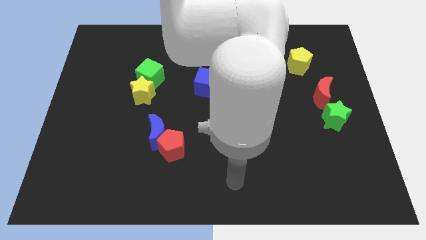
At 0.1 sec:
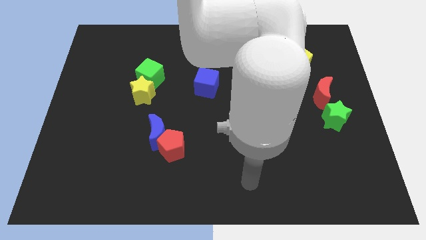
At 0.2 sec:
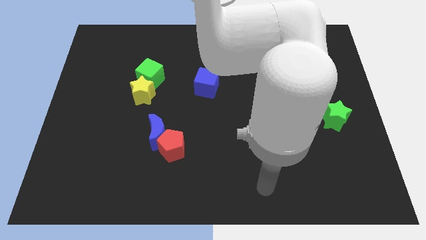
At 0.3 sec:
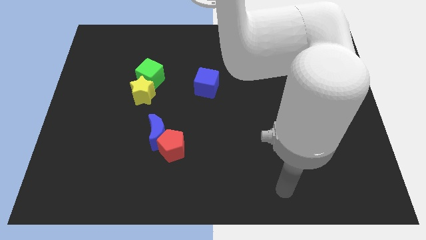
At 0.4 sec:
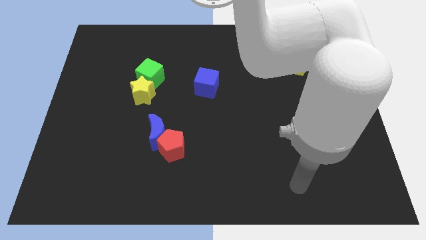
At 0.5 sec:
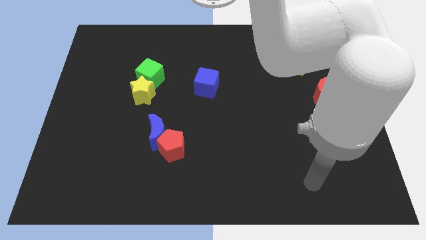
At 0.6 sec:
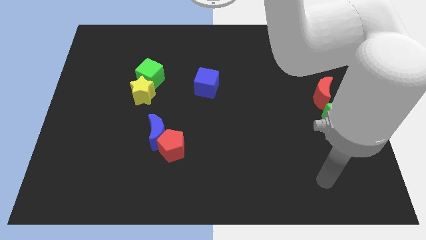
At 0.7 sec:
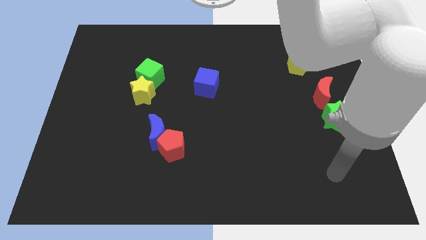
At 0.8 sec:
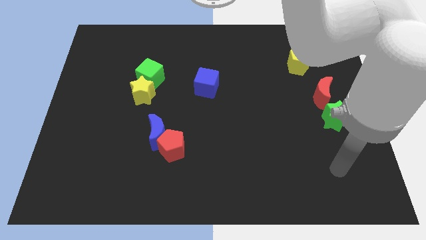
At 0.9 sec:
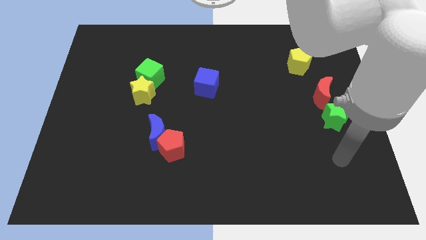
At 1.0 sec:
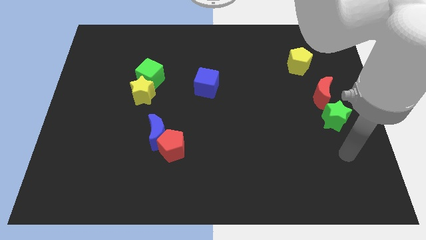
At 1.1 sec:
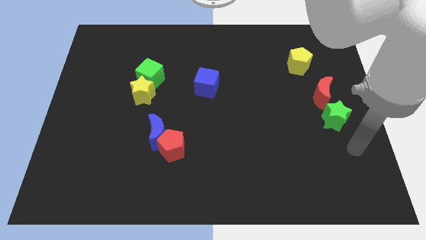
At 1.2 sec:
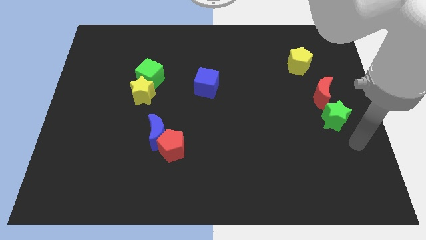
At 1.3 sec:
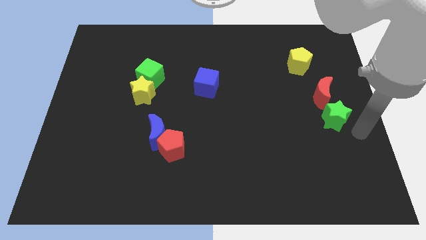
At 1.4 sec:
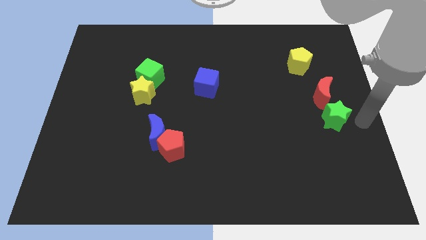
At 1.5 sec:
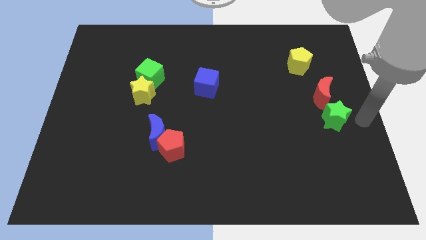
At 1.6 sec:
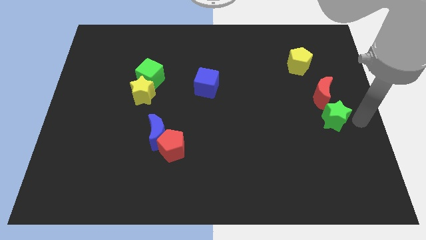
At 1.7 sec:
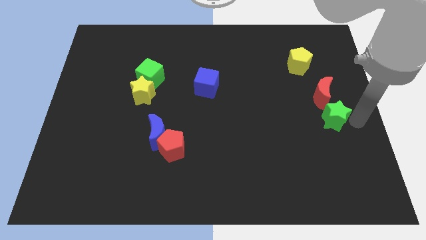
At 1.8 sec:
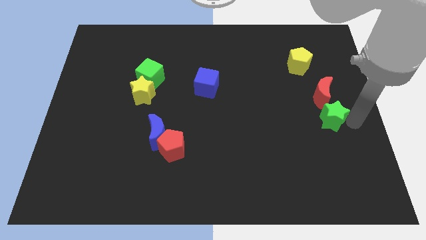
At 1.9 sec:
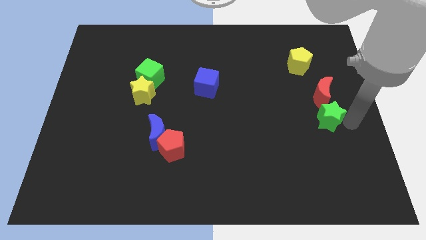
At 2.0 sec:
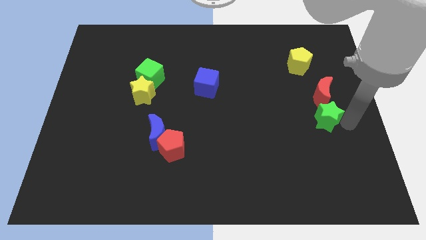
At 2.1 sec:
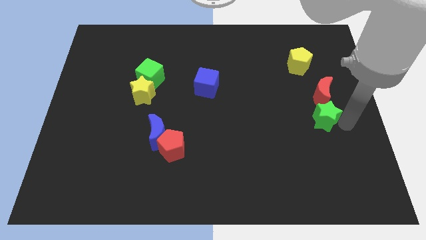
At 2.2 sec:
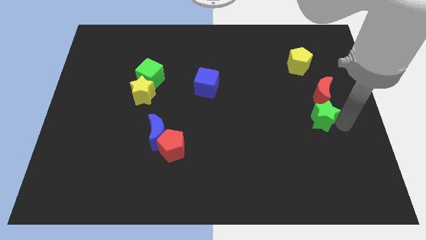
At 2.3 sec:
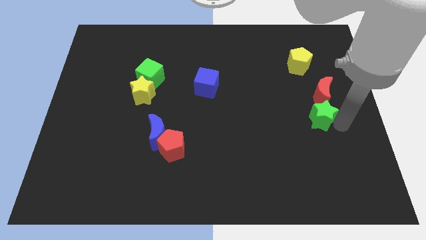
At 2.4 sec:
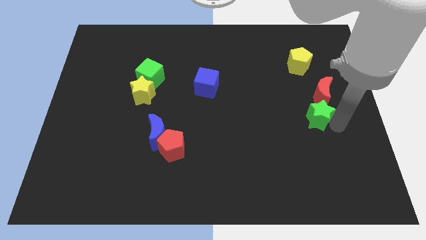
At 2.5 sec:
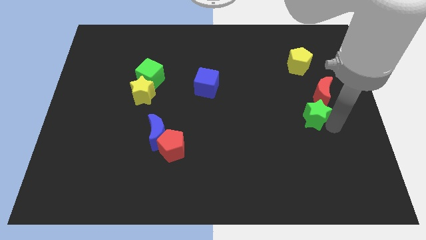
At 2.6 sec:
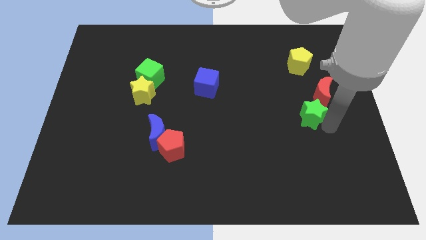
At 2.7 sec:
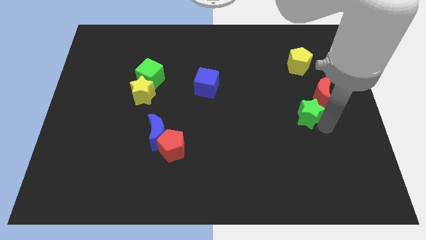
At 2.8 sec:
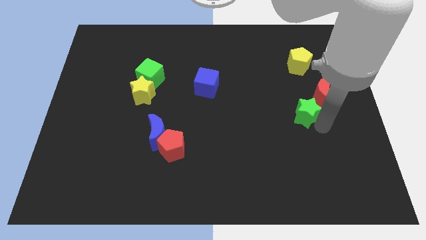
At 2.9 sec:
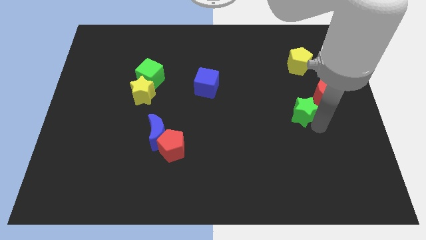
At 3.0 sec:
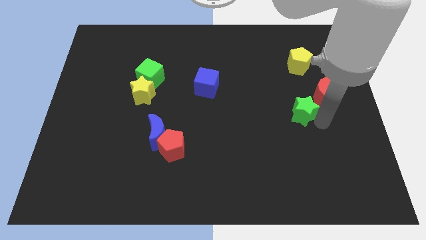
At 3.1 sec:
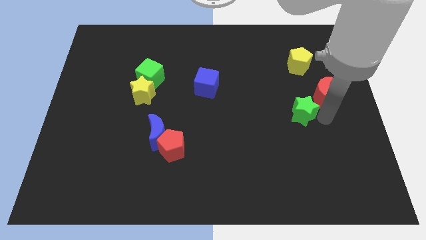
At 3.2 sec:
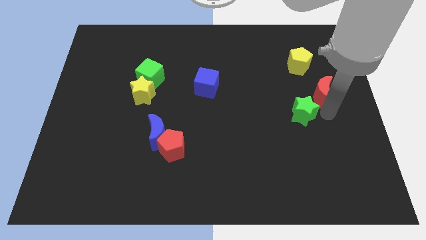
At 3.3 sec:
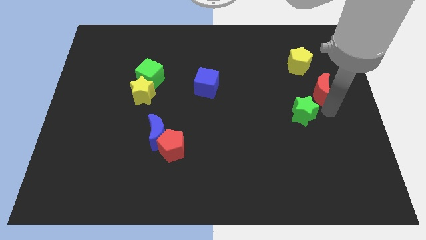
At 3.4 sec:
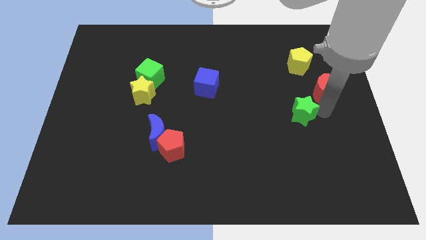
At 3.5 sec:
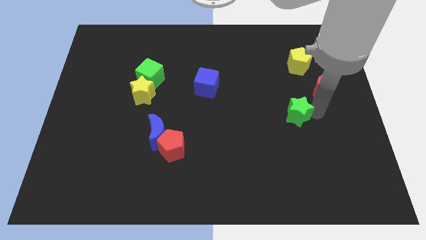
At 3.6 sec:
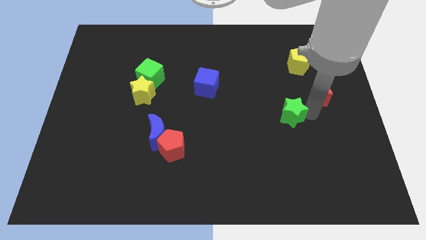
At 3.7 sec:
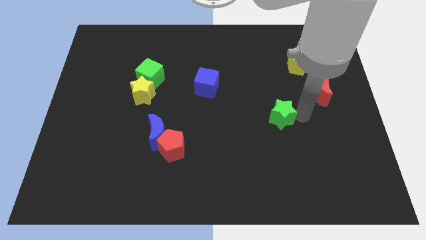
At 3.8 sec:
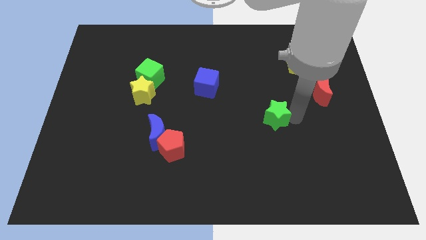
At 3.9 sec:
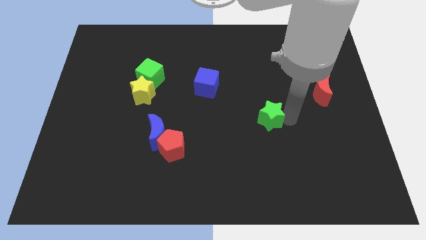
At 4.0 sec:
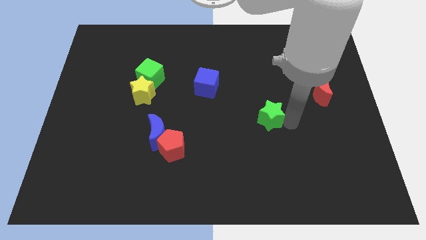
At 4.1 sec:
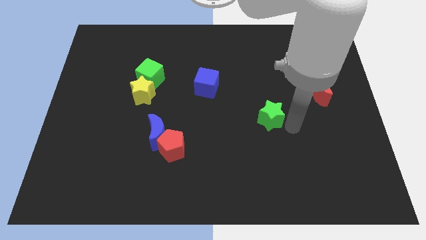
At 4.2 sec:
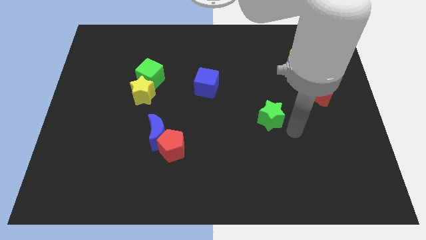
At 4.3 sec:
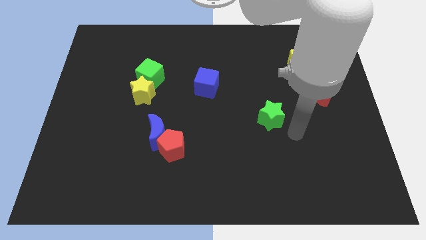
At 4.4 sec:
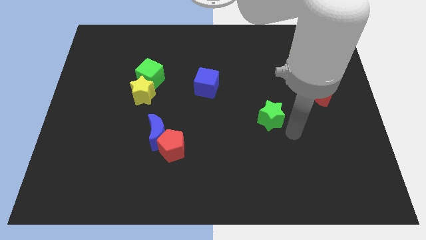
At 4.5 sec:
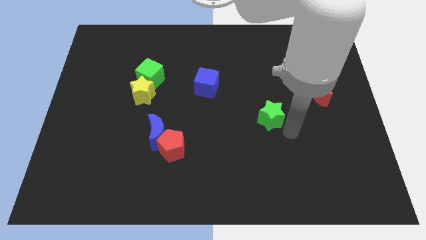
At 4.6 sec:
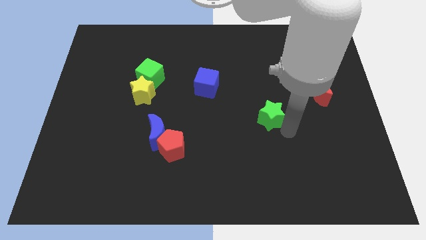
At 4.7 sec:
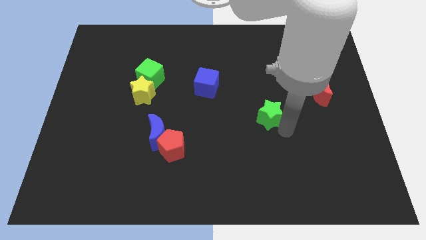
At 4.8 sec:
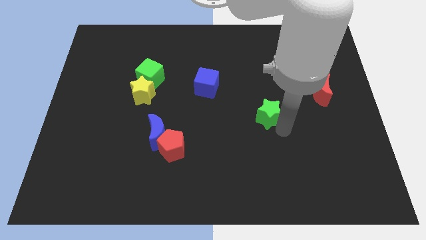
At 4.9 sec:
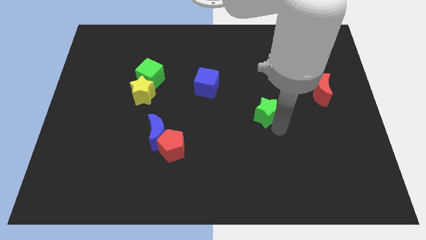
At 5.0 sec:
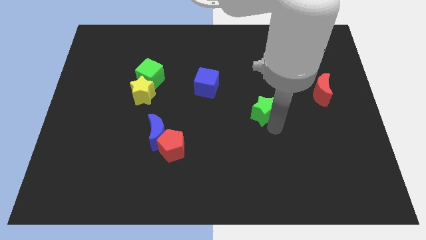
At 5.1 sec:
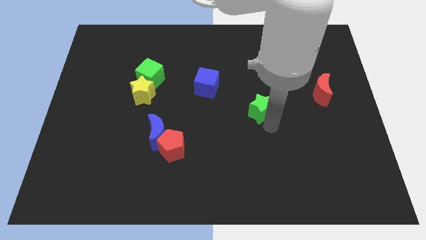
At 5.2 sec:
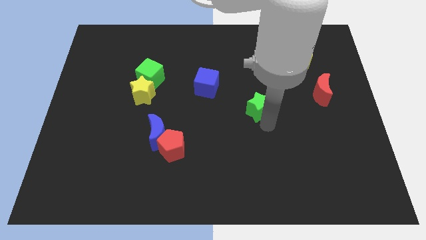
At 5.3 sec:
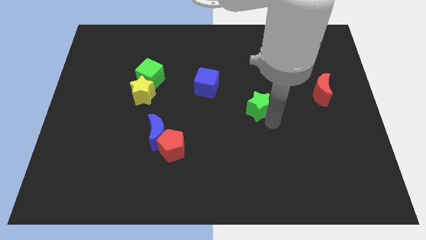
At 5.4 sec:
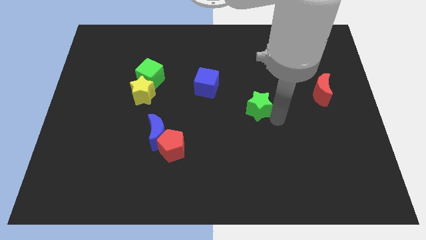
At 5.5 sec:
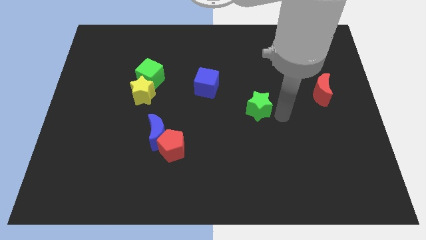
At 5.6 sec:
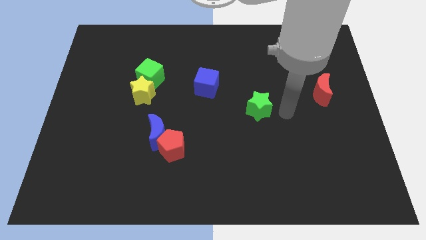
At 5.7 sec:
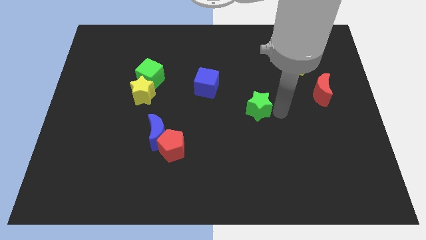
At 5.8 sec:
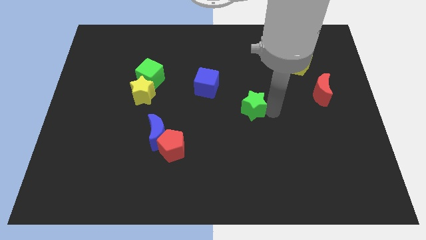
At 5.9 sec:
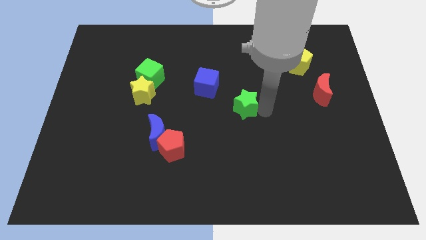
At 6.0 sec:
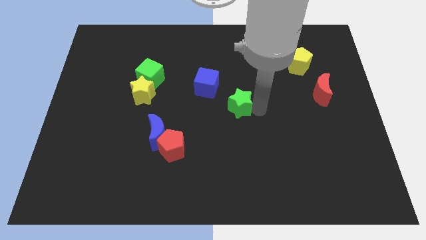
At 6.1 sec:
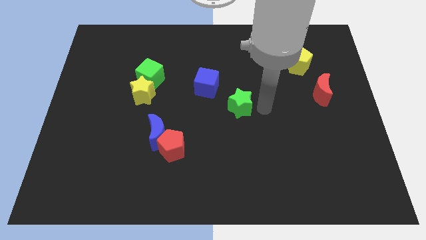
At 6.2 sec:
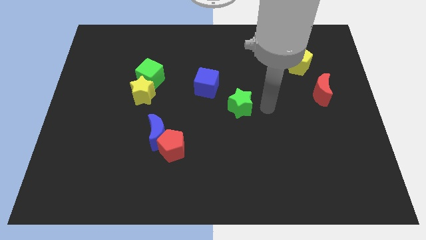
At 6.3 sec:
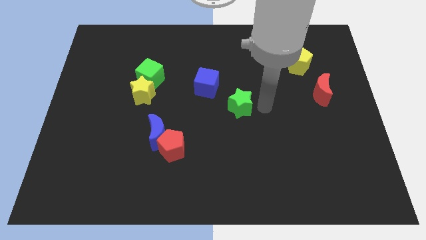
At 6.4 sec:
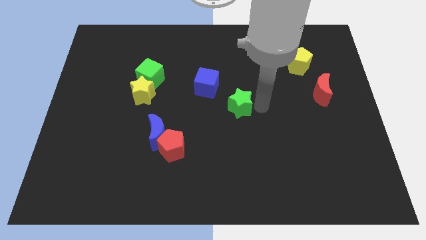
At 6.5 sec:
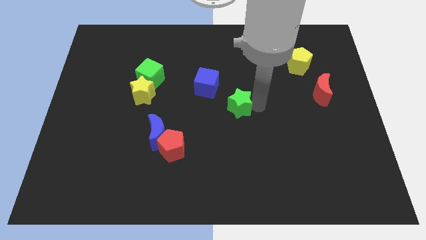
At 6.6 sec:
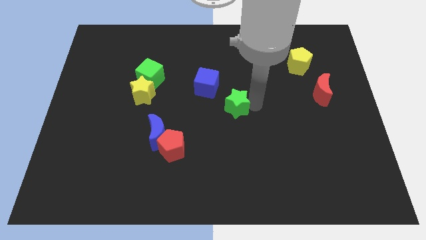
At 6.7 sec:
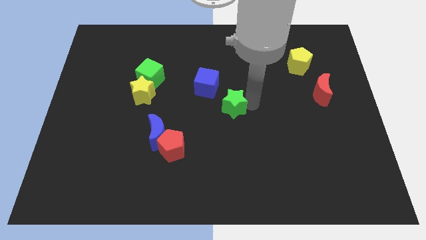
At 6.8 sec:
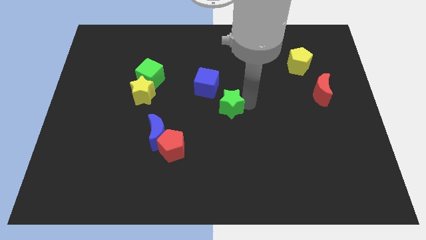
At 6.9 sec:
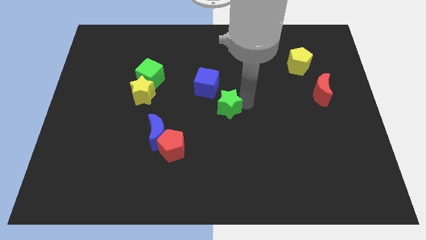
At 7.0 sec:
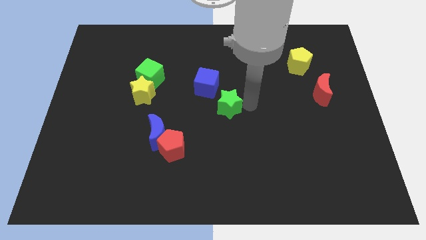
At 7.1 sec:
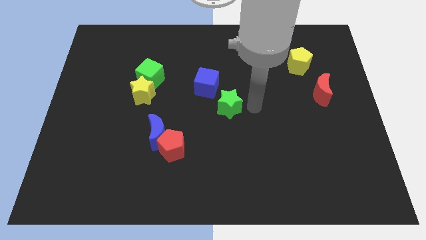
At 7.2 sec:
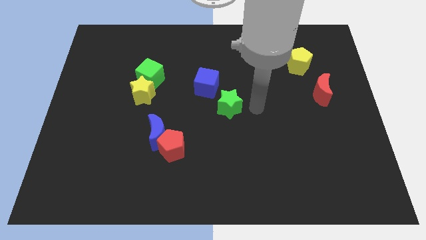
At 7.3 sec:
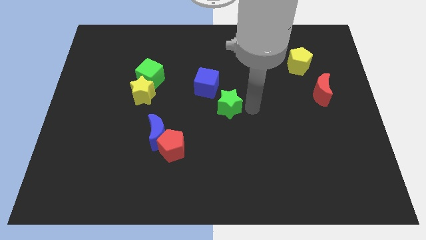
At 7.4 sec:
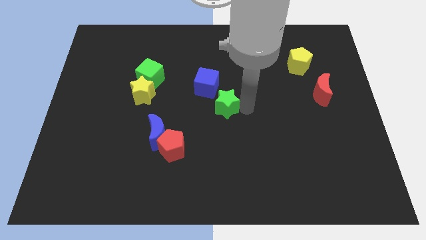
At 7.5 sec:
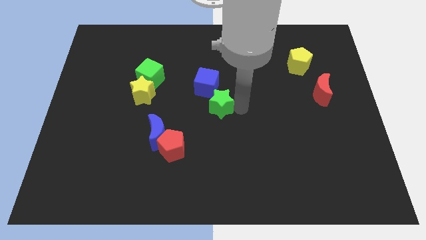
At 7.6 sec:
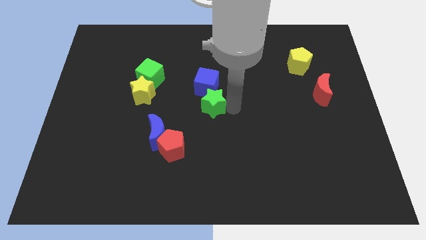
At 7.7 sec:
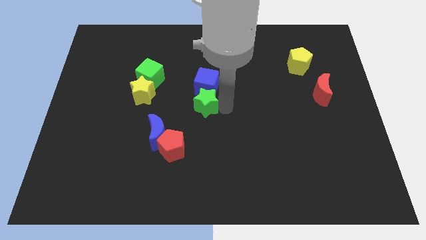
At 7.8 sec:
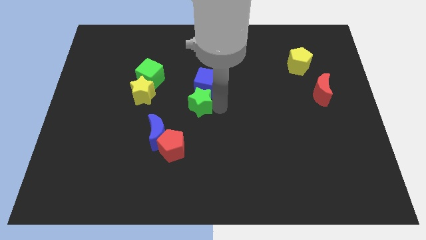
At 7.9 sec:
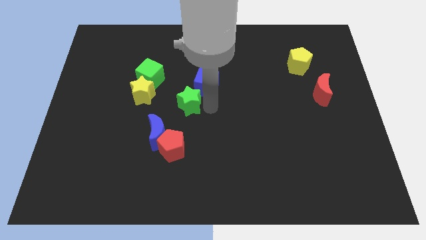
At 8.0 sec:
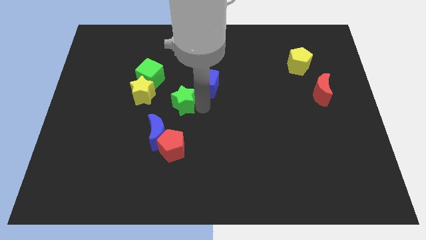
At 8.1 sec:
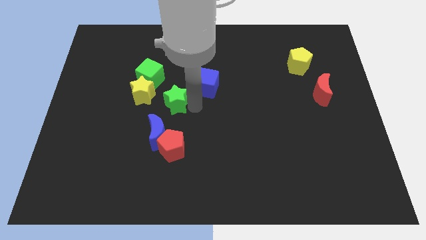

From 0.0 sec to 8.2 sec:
slide the green star to the top of the blue moon
